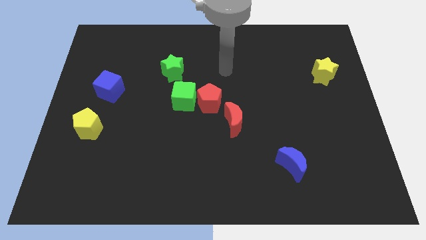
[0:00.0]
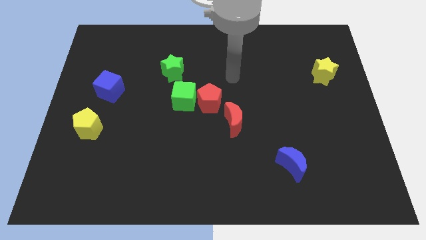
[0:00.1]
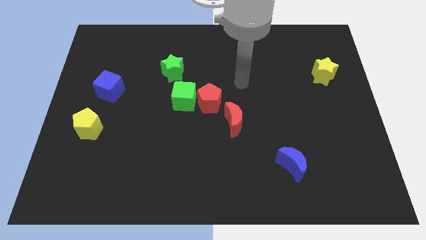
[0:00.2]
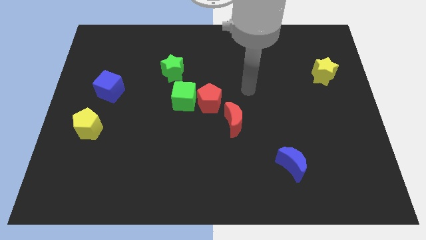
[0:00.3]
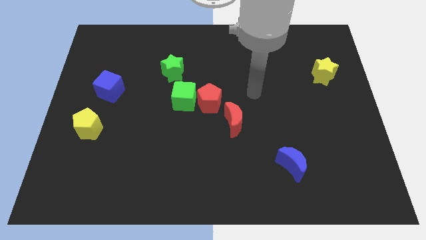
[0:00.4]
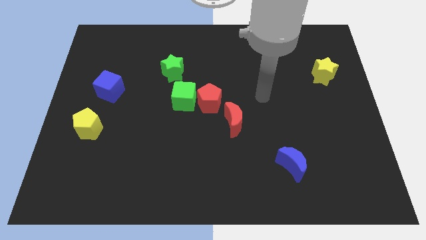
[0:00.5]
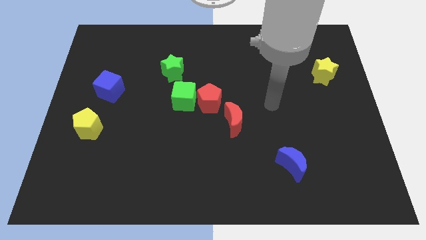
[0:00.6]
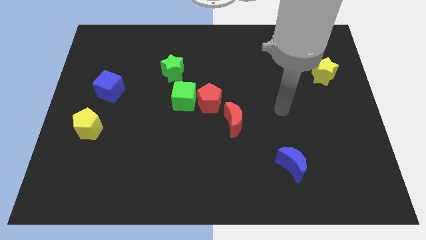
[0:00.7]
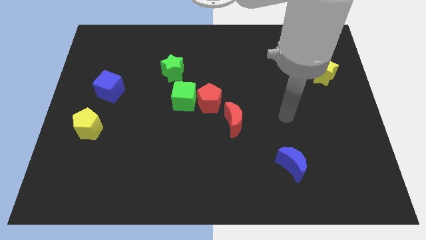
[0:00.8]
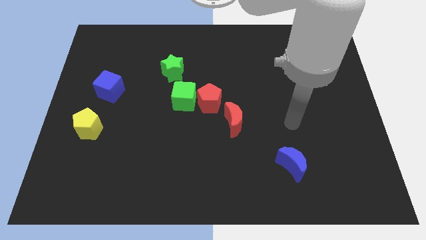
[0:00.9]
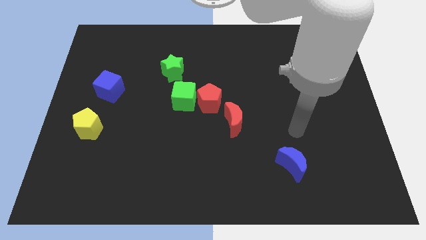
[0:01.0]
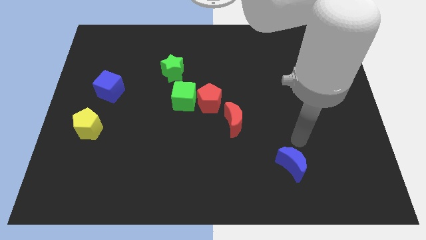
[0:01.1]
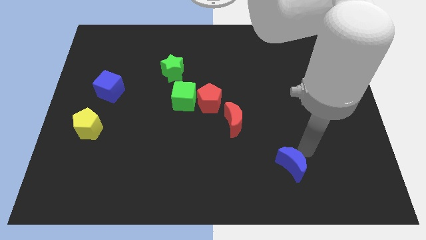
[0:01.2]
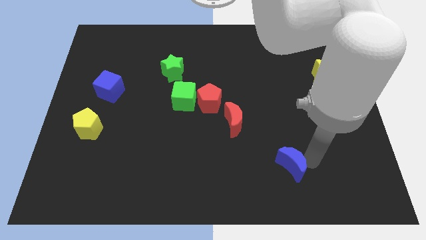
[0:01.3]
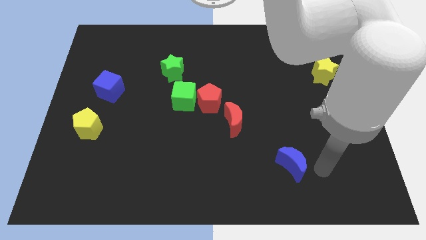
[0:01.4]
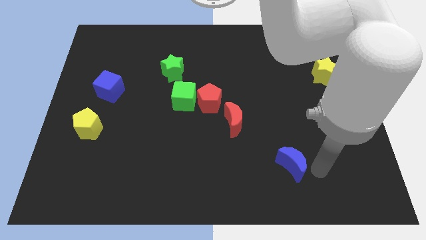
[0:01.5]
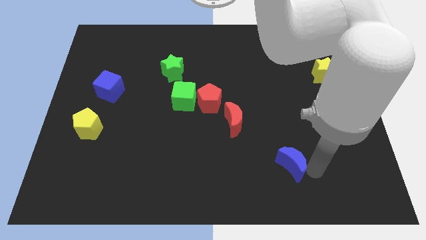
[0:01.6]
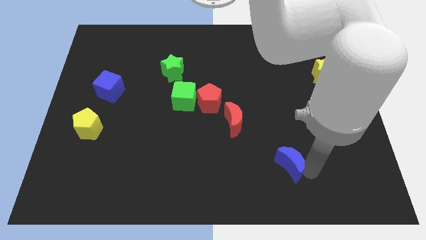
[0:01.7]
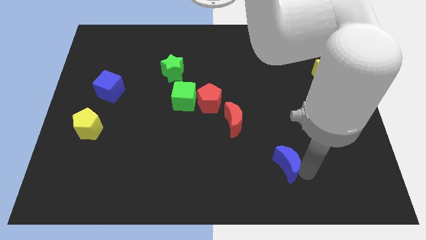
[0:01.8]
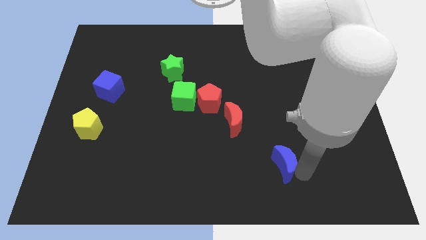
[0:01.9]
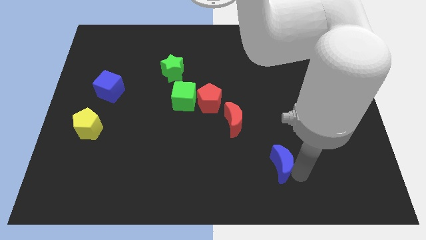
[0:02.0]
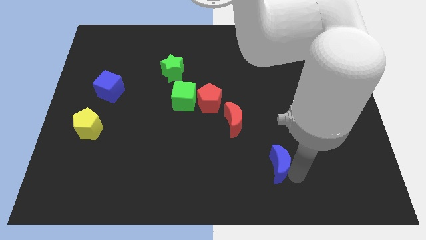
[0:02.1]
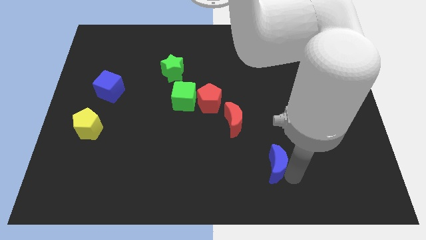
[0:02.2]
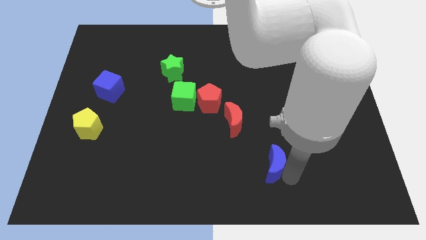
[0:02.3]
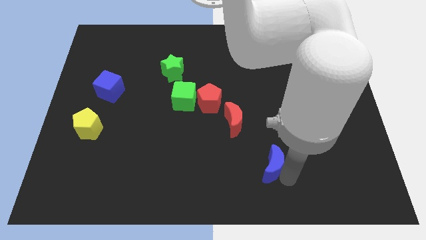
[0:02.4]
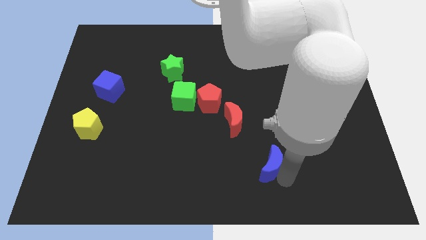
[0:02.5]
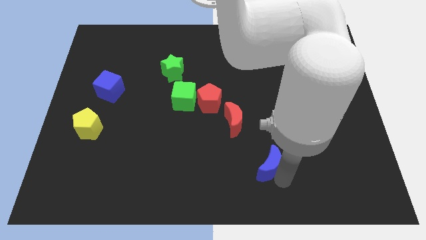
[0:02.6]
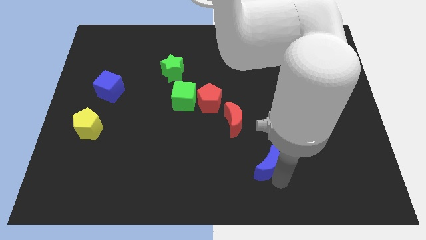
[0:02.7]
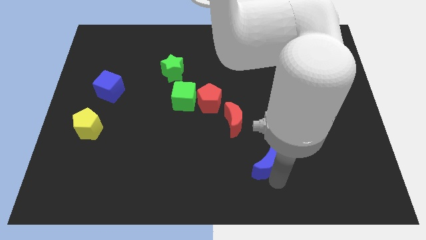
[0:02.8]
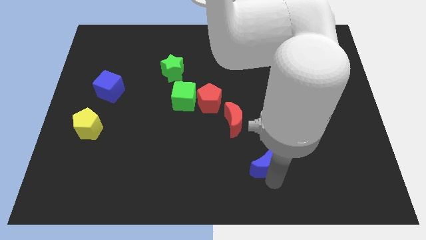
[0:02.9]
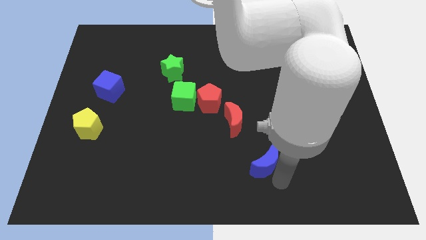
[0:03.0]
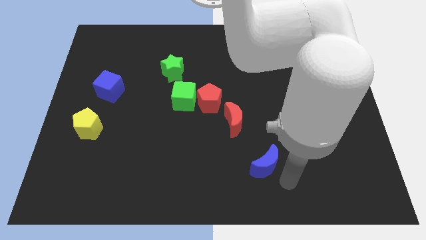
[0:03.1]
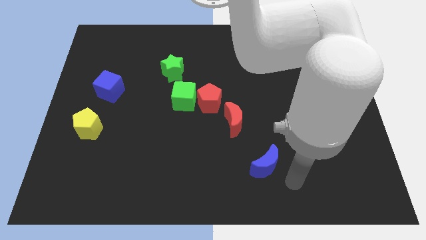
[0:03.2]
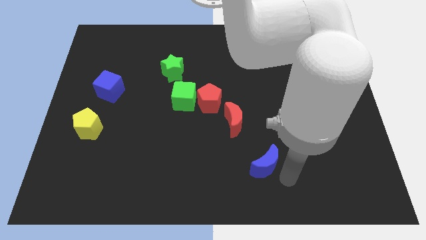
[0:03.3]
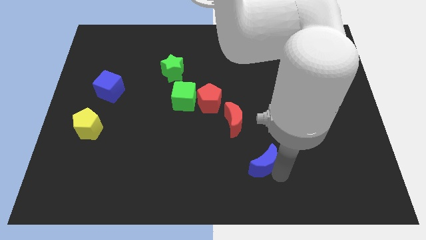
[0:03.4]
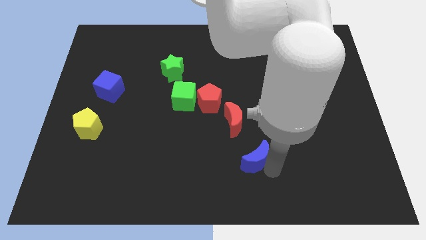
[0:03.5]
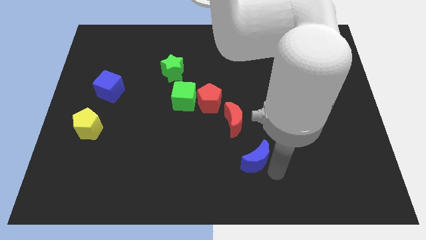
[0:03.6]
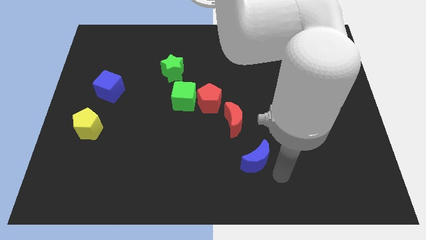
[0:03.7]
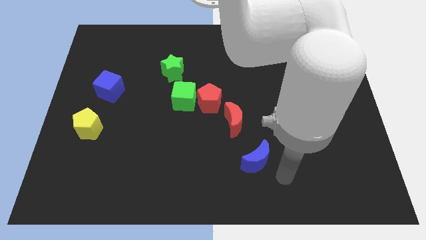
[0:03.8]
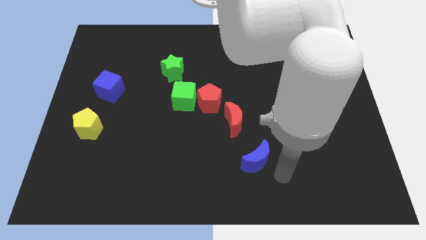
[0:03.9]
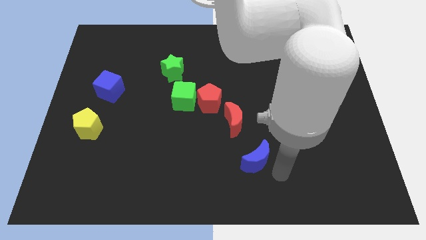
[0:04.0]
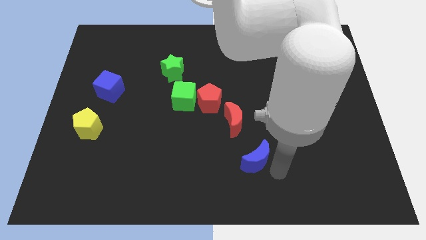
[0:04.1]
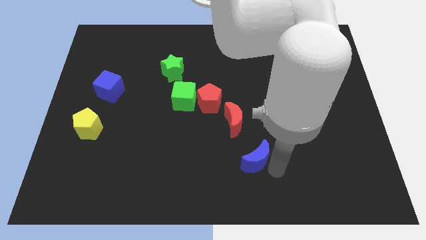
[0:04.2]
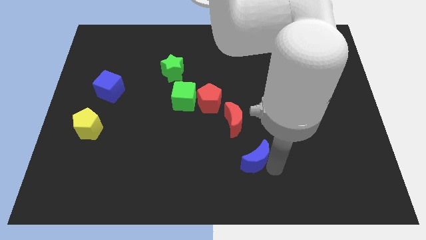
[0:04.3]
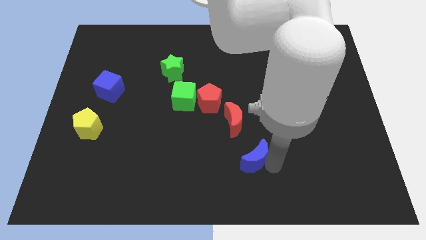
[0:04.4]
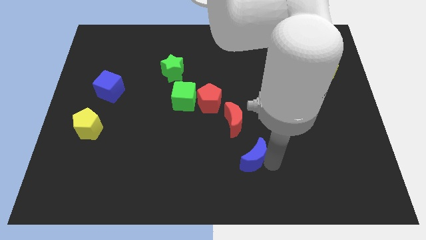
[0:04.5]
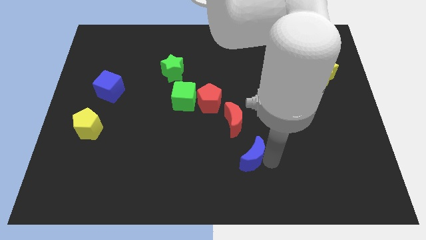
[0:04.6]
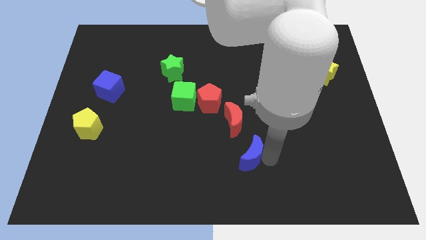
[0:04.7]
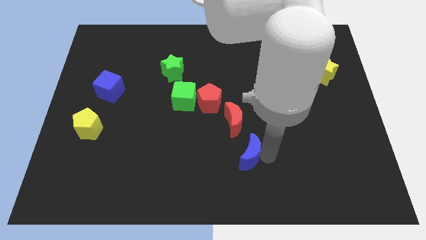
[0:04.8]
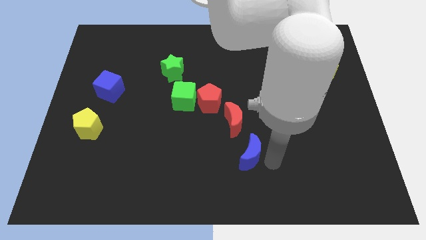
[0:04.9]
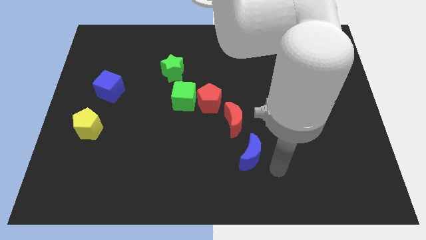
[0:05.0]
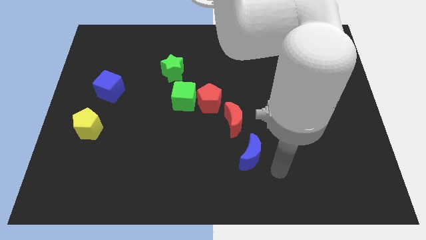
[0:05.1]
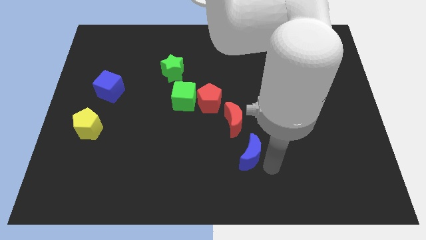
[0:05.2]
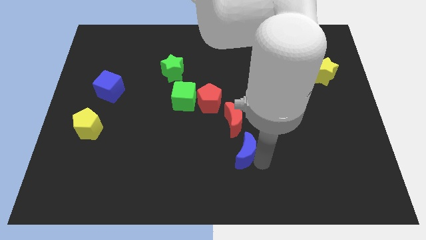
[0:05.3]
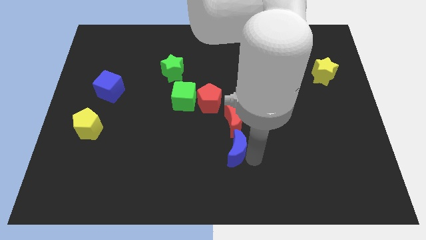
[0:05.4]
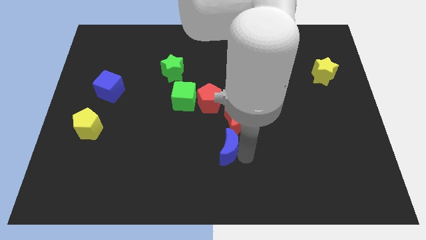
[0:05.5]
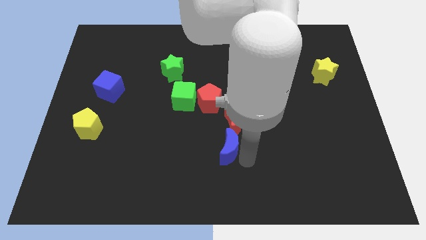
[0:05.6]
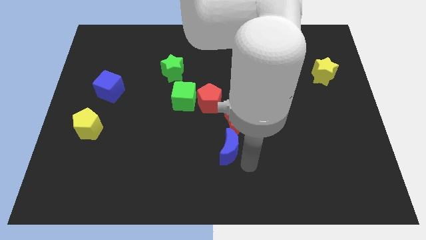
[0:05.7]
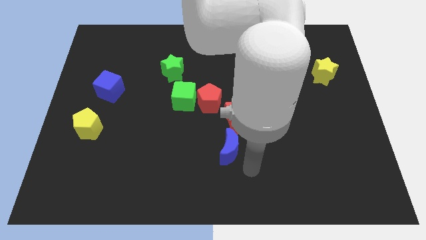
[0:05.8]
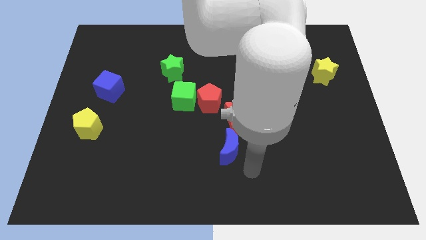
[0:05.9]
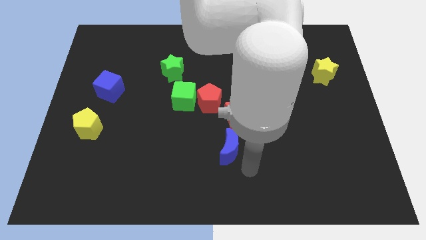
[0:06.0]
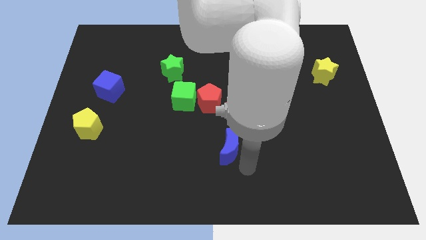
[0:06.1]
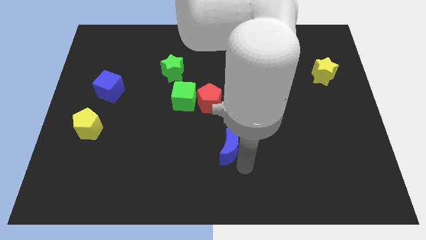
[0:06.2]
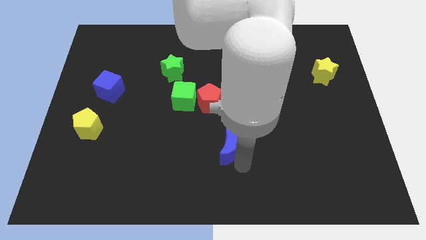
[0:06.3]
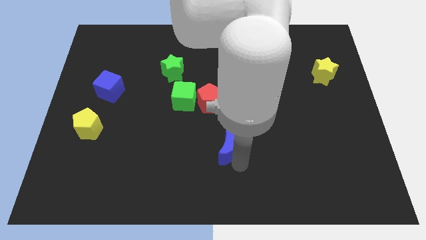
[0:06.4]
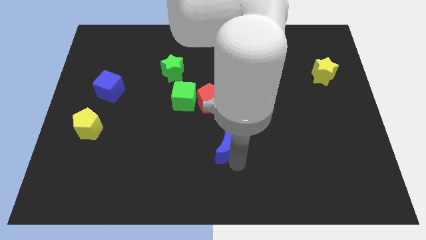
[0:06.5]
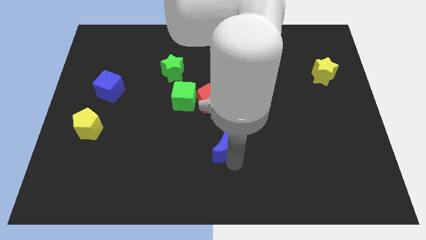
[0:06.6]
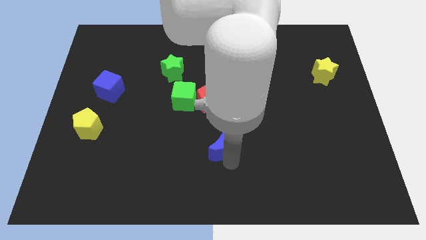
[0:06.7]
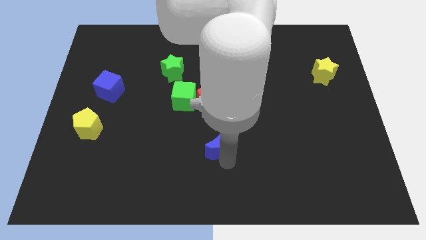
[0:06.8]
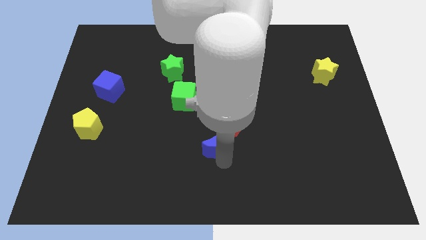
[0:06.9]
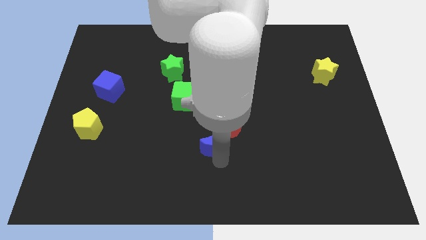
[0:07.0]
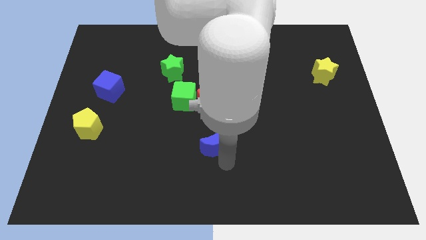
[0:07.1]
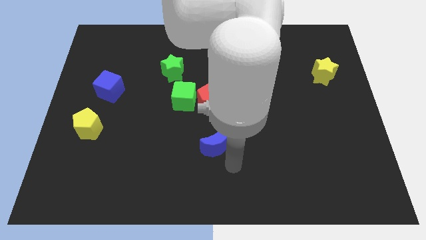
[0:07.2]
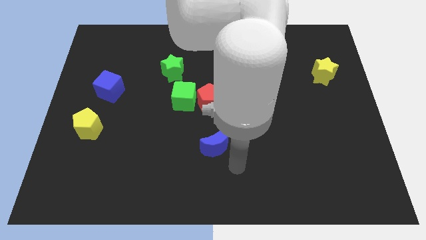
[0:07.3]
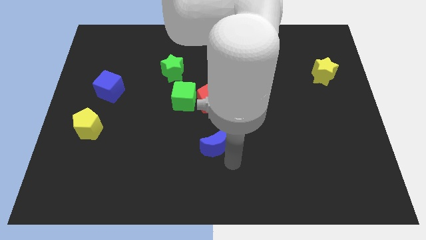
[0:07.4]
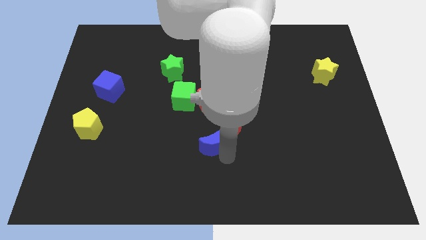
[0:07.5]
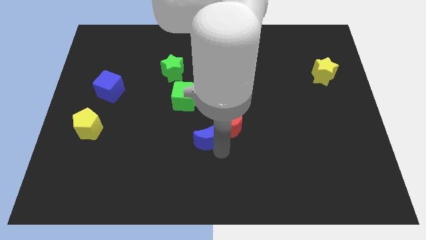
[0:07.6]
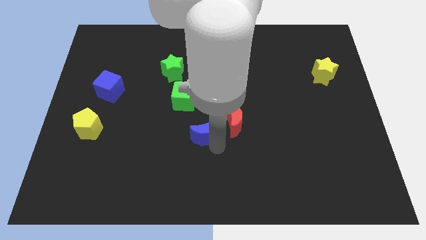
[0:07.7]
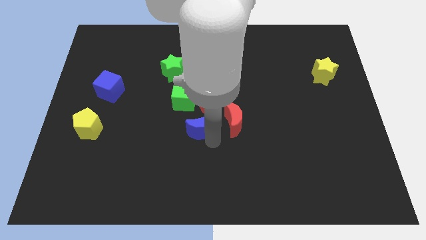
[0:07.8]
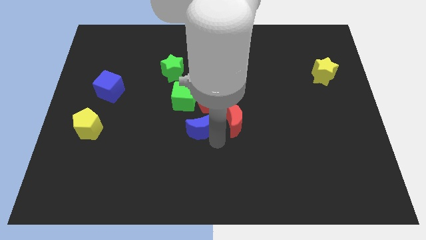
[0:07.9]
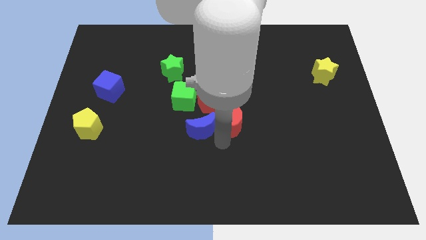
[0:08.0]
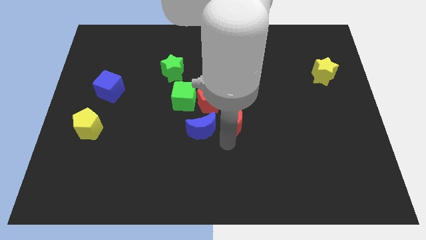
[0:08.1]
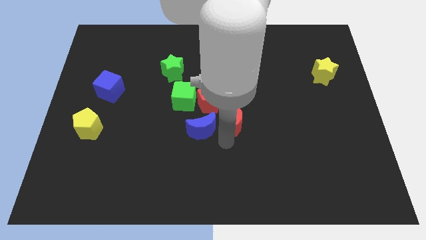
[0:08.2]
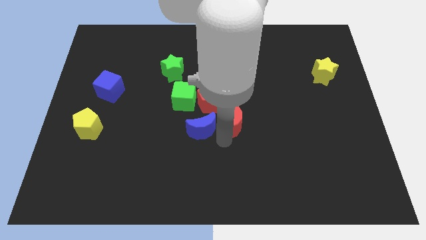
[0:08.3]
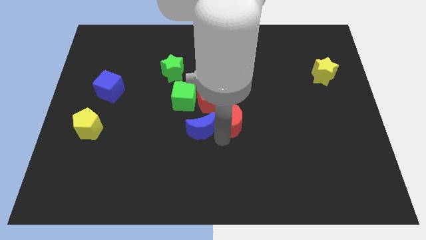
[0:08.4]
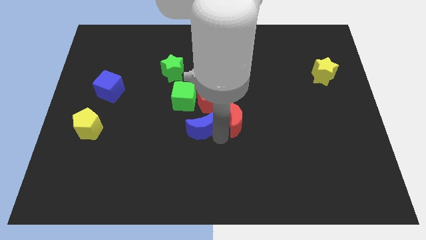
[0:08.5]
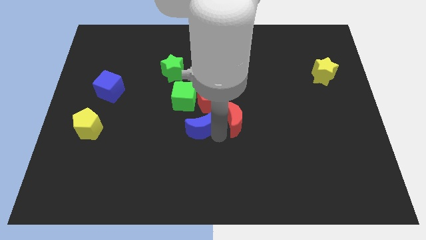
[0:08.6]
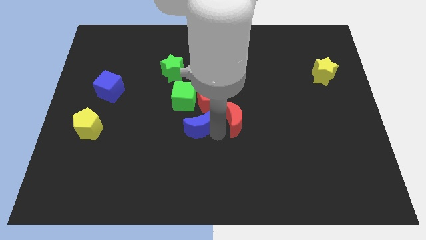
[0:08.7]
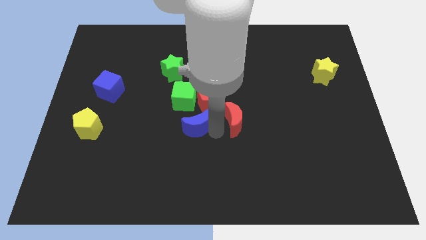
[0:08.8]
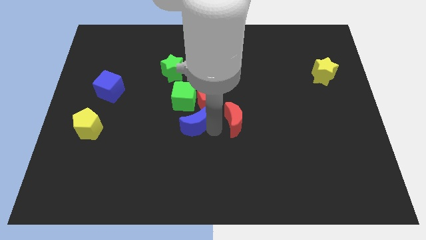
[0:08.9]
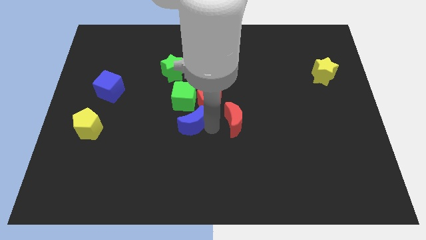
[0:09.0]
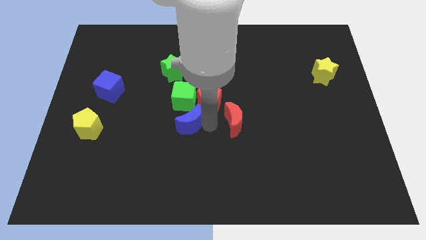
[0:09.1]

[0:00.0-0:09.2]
push the blue moon up and then to the left
